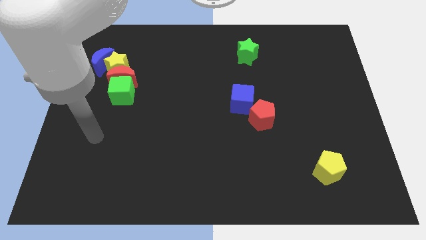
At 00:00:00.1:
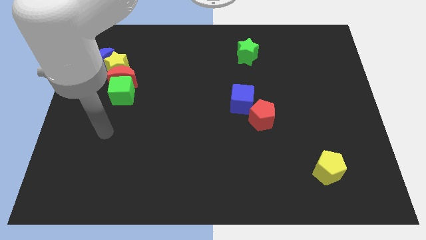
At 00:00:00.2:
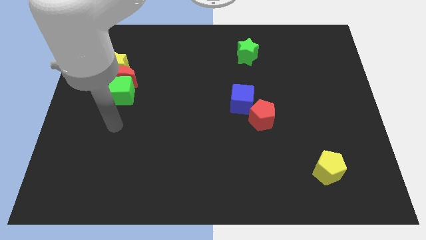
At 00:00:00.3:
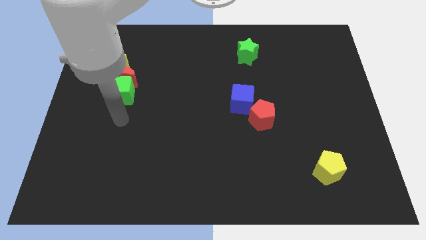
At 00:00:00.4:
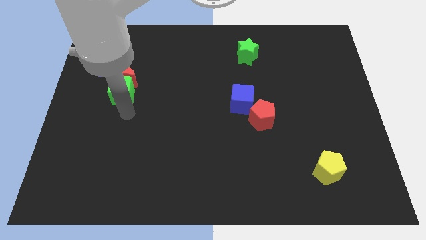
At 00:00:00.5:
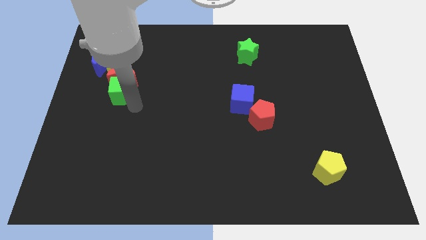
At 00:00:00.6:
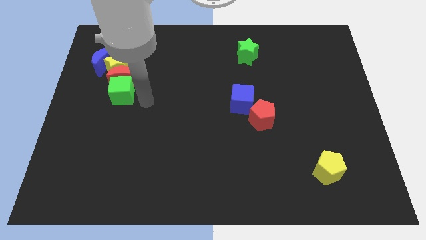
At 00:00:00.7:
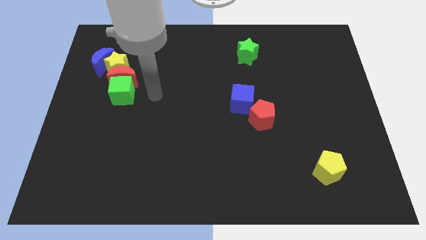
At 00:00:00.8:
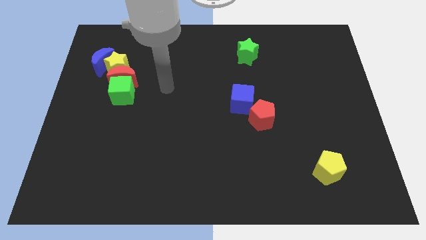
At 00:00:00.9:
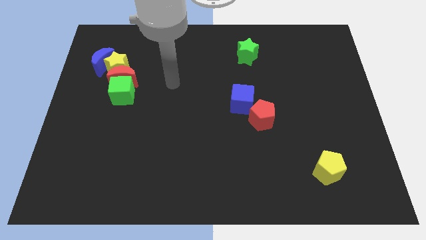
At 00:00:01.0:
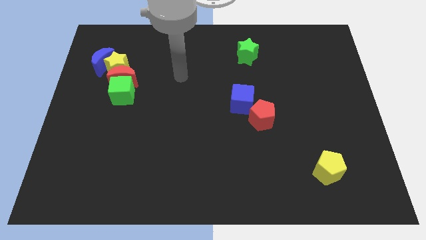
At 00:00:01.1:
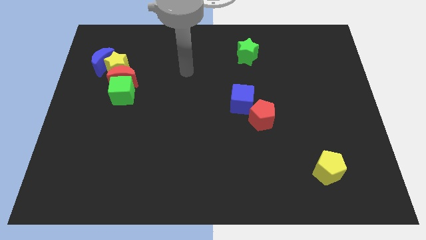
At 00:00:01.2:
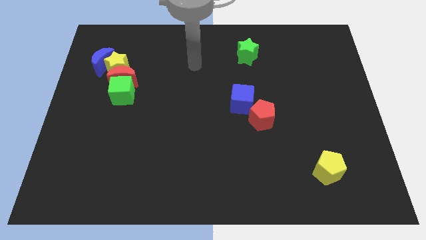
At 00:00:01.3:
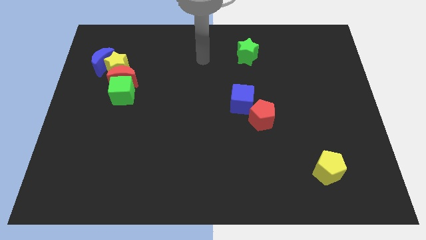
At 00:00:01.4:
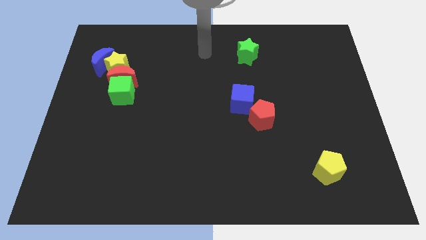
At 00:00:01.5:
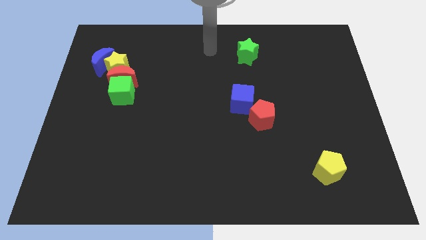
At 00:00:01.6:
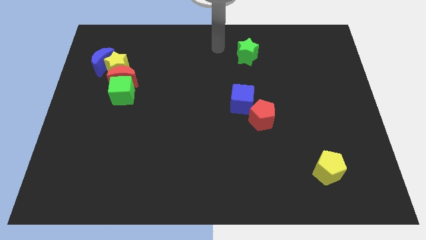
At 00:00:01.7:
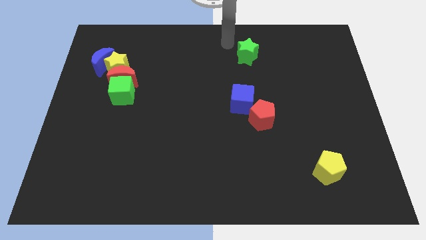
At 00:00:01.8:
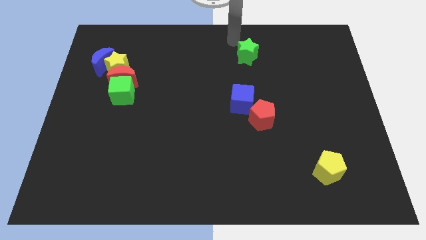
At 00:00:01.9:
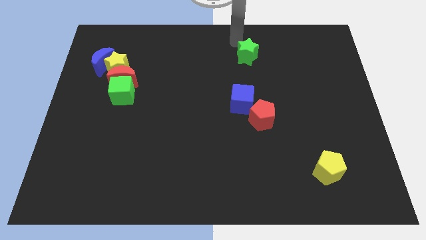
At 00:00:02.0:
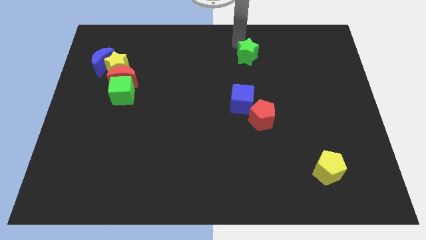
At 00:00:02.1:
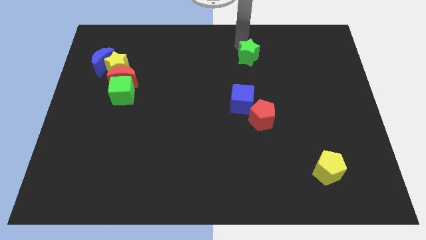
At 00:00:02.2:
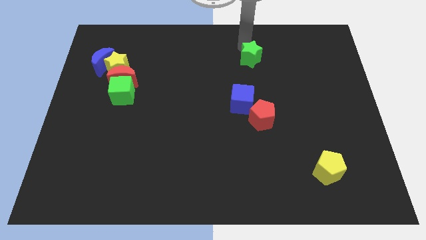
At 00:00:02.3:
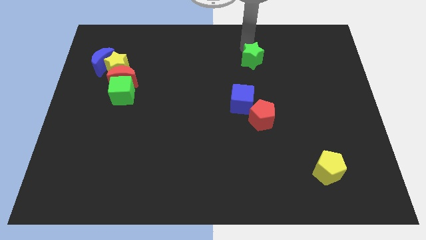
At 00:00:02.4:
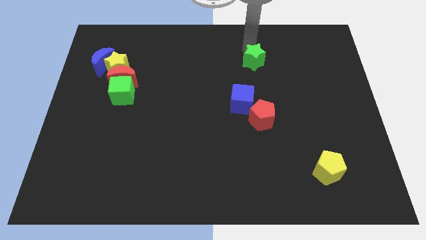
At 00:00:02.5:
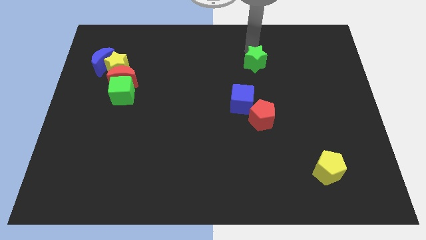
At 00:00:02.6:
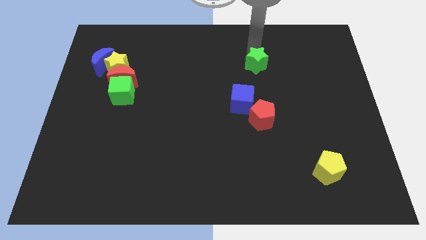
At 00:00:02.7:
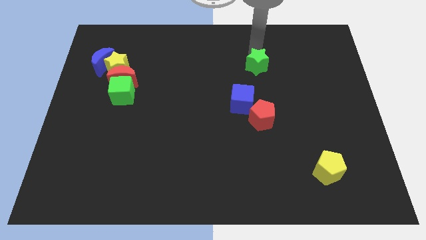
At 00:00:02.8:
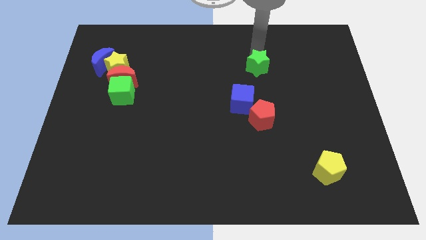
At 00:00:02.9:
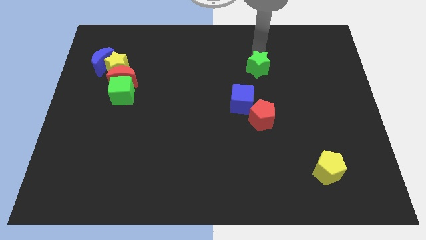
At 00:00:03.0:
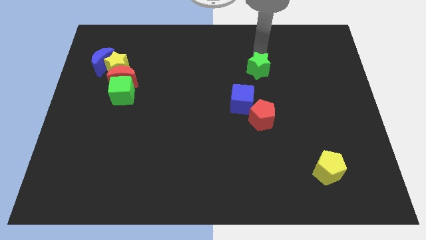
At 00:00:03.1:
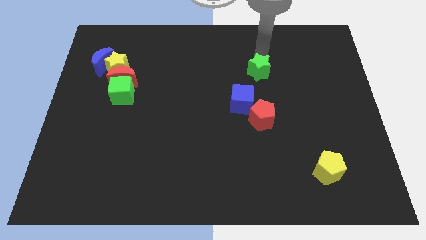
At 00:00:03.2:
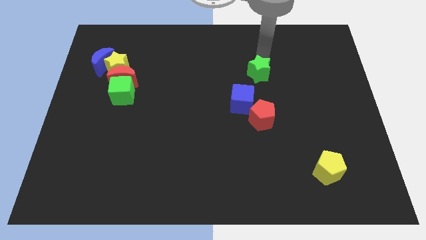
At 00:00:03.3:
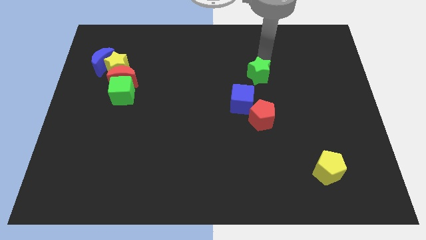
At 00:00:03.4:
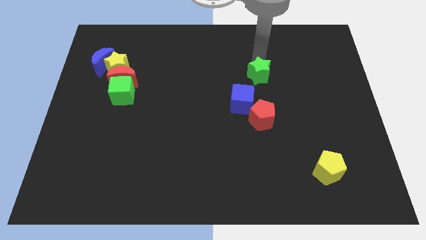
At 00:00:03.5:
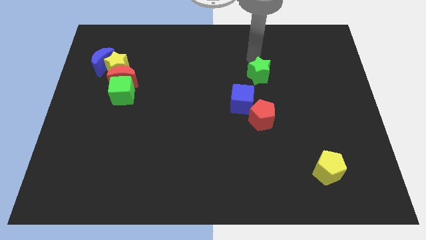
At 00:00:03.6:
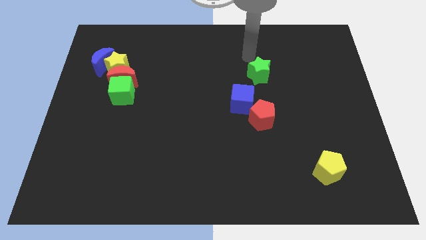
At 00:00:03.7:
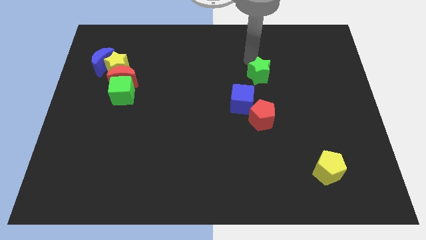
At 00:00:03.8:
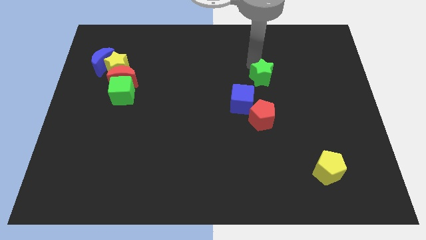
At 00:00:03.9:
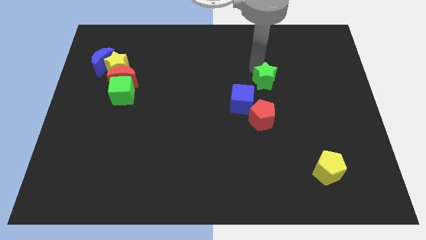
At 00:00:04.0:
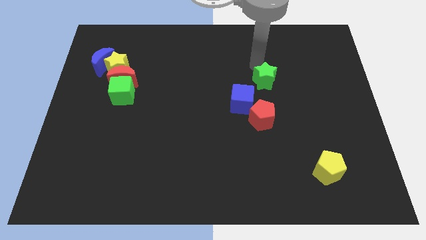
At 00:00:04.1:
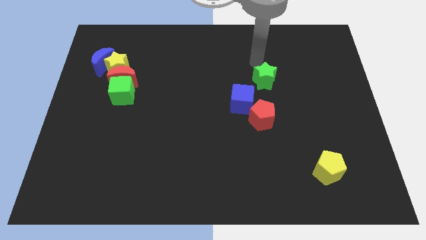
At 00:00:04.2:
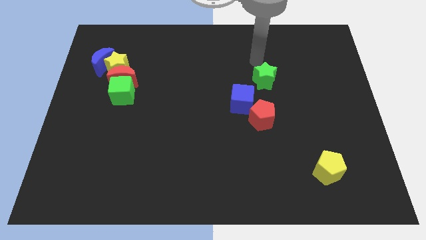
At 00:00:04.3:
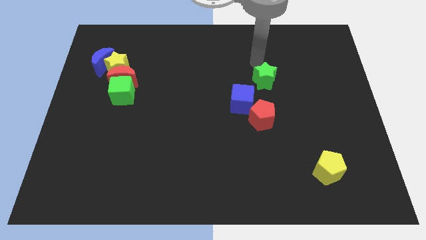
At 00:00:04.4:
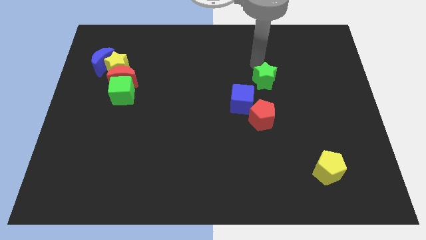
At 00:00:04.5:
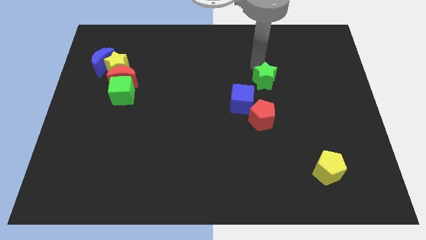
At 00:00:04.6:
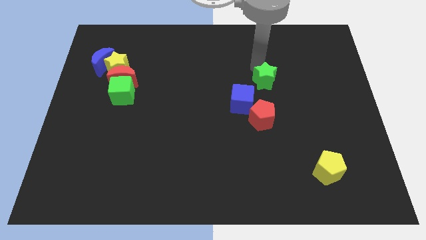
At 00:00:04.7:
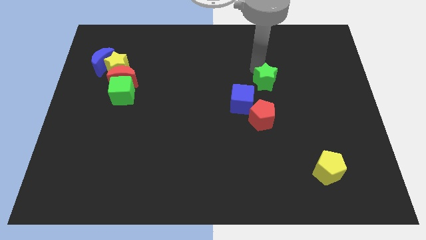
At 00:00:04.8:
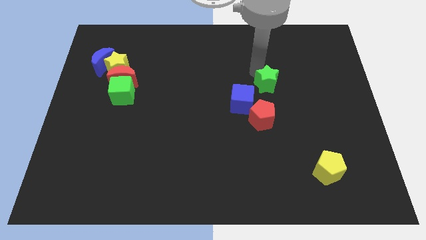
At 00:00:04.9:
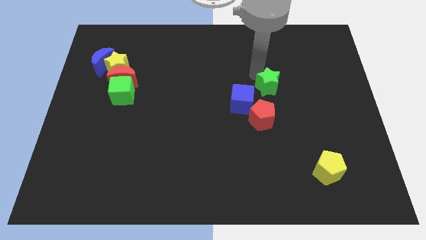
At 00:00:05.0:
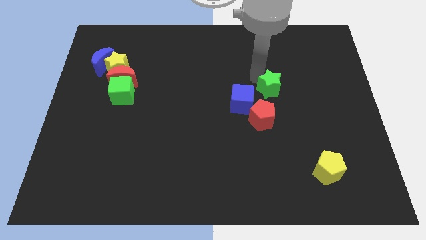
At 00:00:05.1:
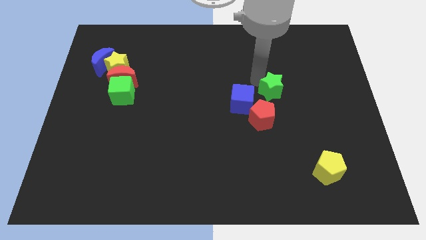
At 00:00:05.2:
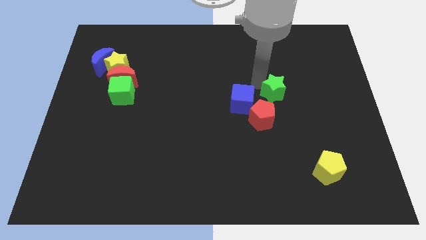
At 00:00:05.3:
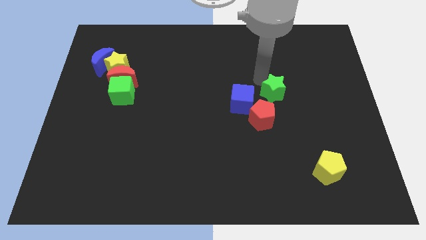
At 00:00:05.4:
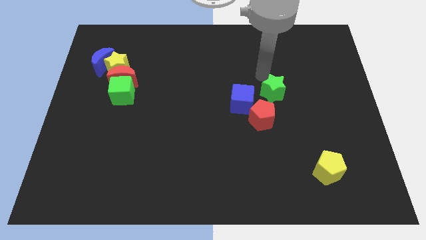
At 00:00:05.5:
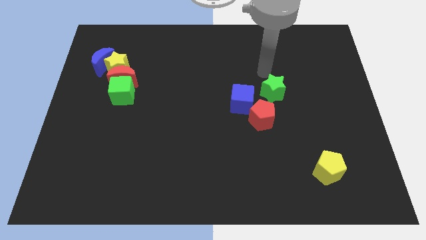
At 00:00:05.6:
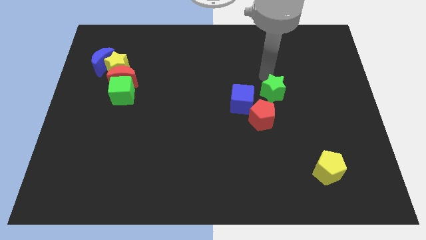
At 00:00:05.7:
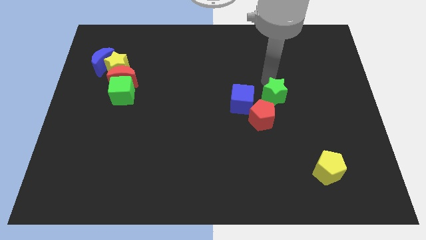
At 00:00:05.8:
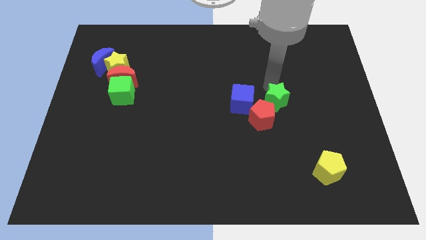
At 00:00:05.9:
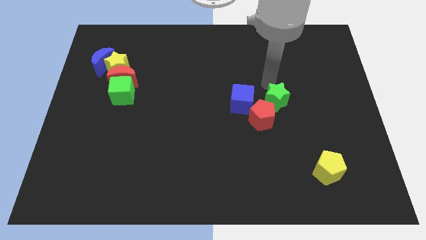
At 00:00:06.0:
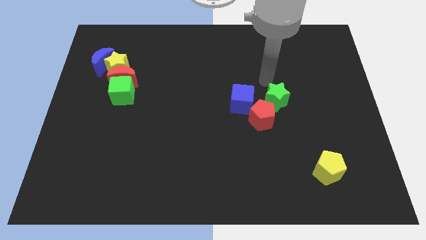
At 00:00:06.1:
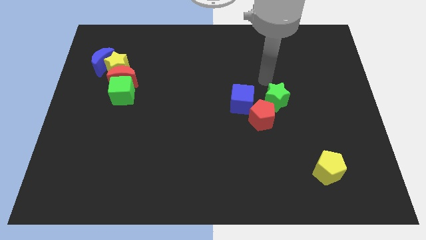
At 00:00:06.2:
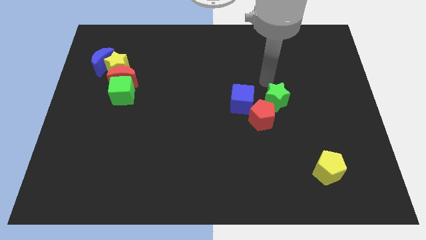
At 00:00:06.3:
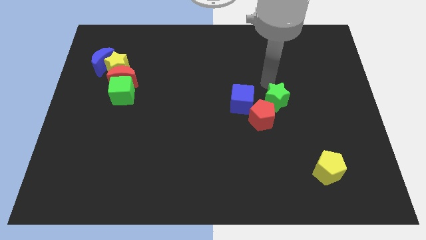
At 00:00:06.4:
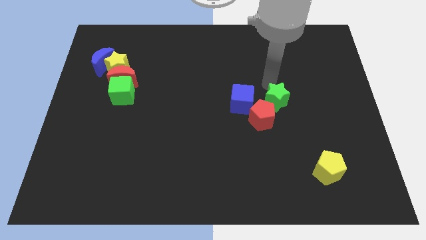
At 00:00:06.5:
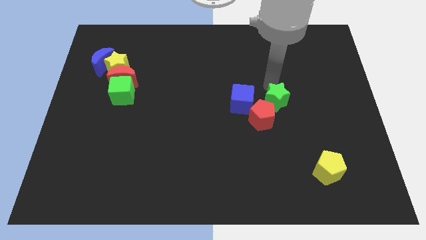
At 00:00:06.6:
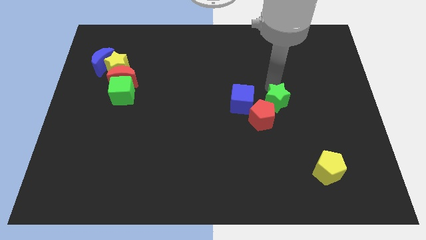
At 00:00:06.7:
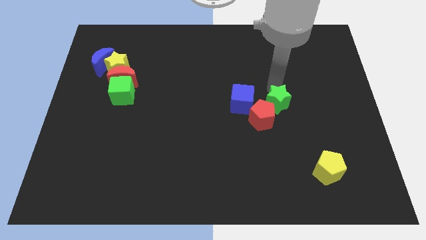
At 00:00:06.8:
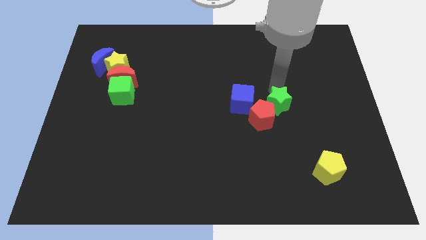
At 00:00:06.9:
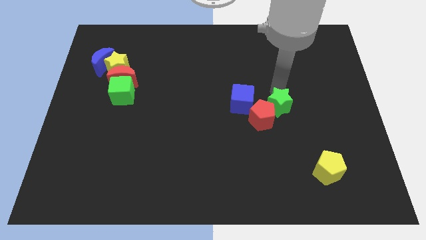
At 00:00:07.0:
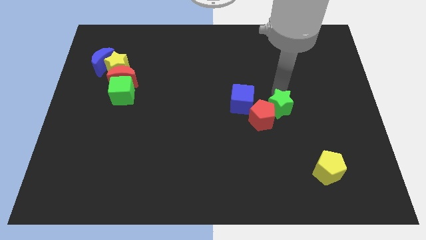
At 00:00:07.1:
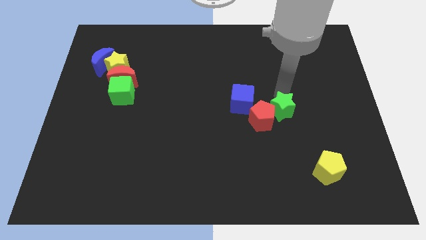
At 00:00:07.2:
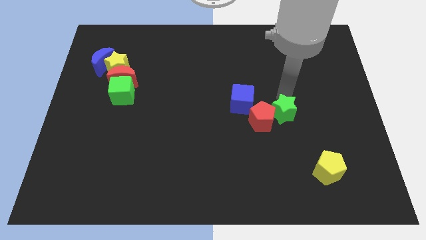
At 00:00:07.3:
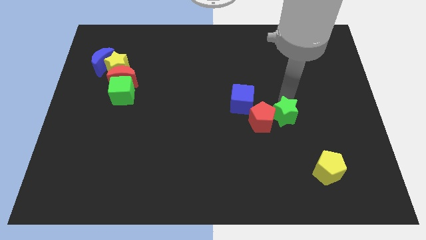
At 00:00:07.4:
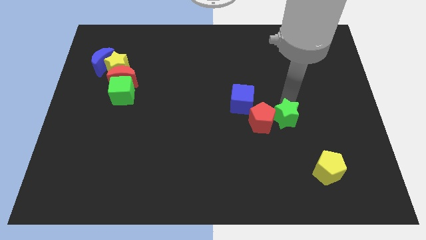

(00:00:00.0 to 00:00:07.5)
put the green star to the bottom right side of the red pentagon
